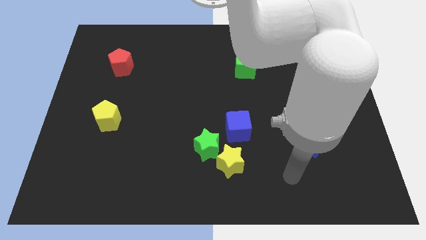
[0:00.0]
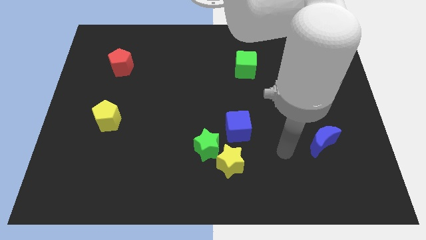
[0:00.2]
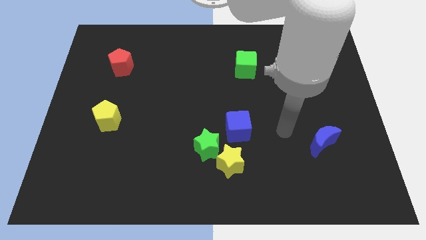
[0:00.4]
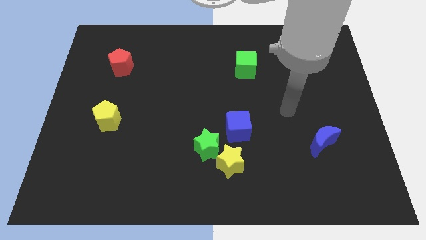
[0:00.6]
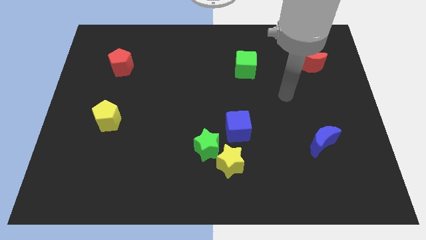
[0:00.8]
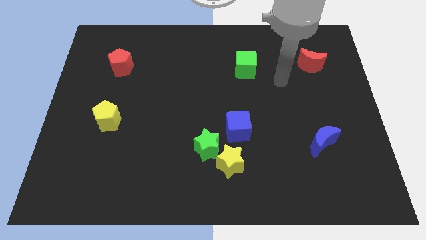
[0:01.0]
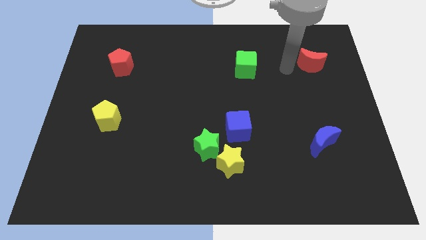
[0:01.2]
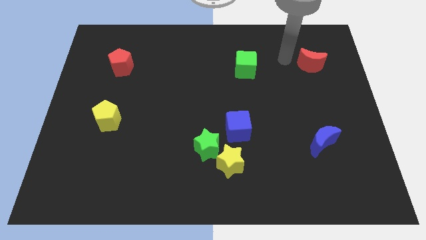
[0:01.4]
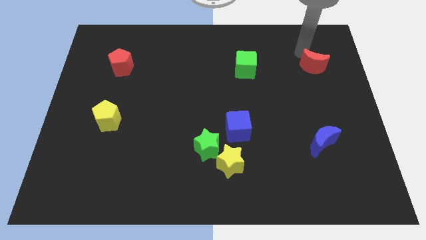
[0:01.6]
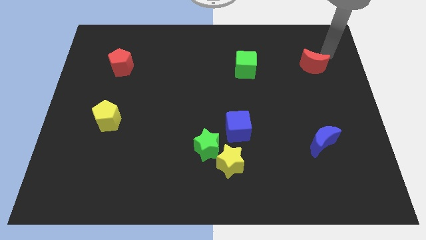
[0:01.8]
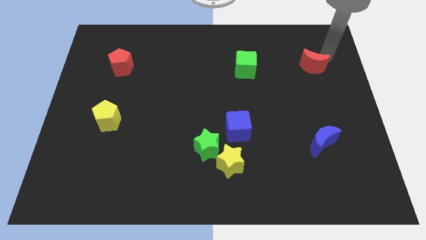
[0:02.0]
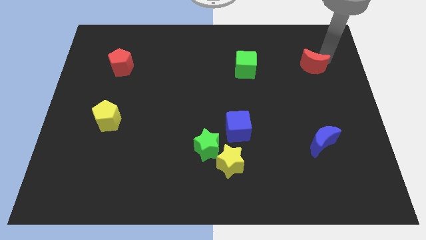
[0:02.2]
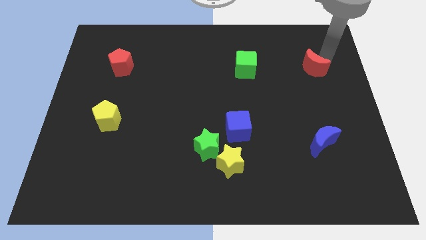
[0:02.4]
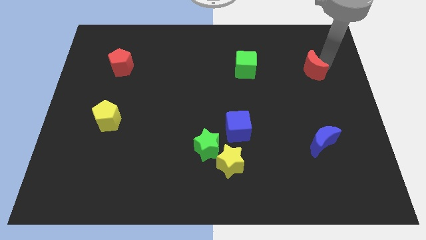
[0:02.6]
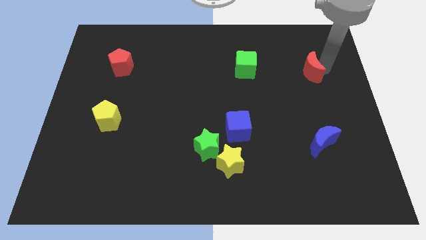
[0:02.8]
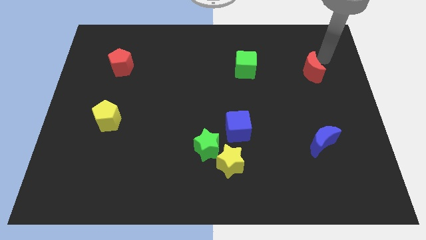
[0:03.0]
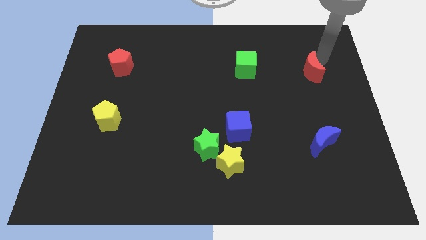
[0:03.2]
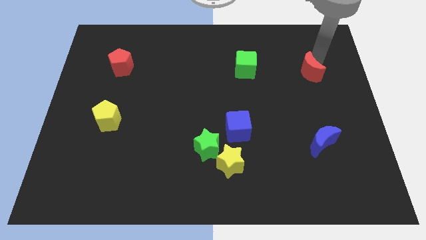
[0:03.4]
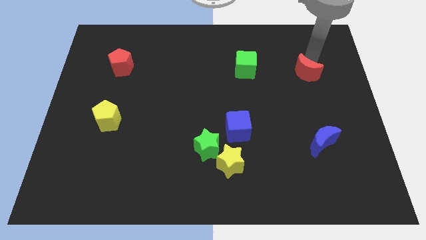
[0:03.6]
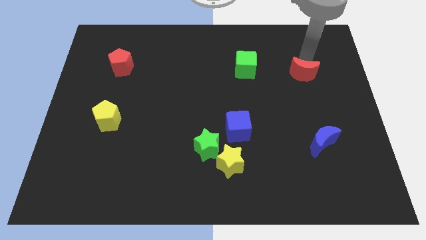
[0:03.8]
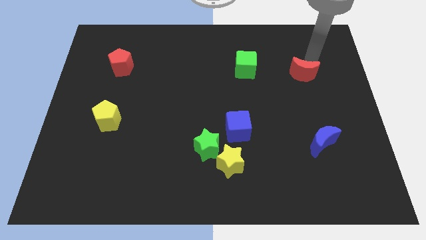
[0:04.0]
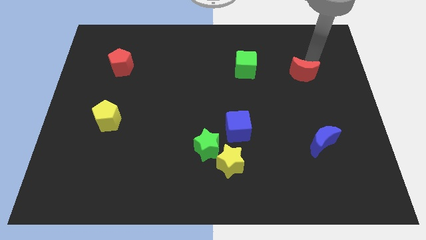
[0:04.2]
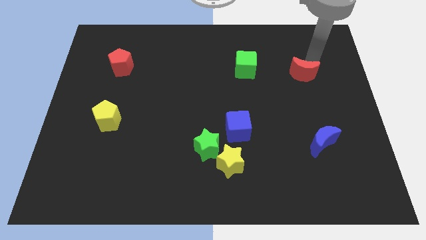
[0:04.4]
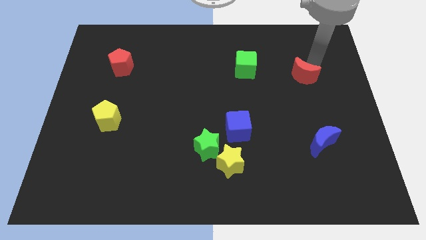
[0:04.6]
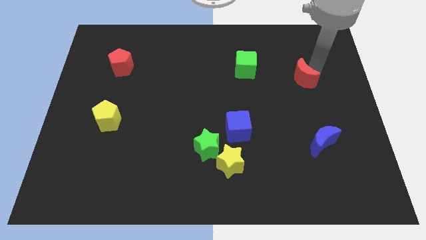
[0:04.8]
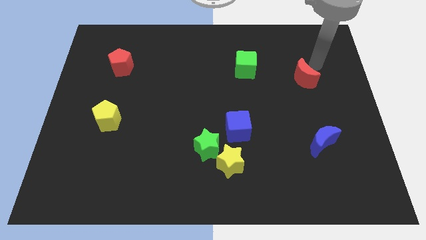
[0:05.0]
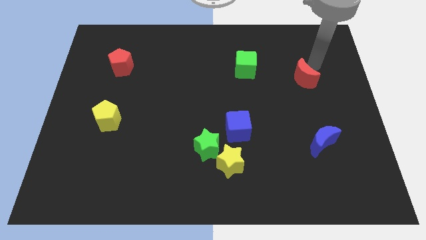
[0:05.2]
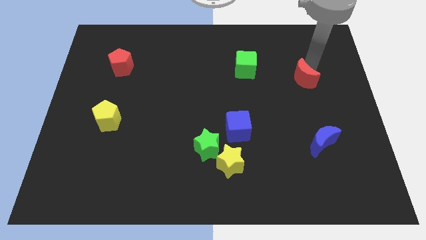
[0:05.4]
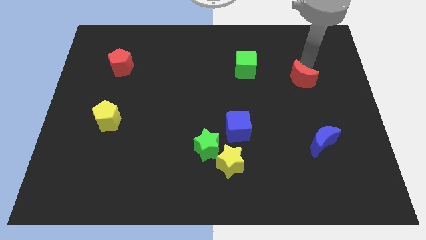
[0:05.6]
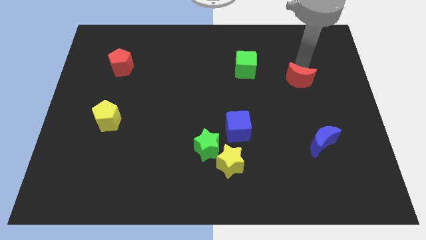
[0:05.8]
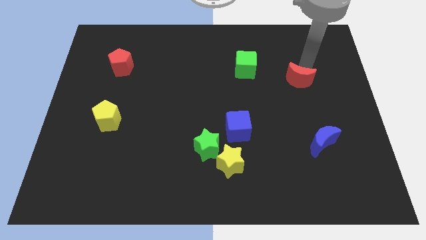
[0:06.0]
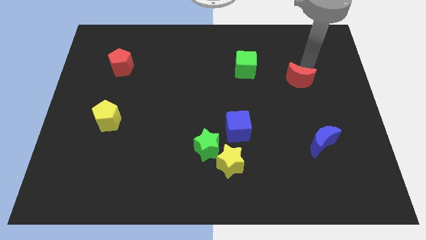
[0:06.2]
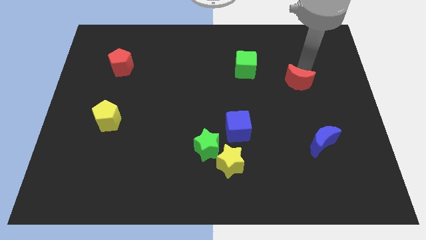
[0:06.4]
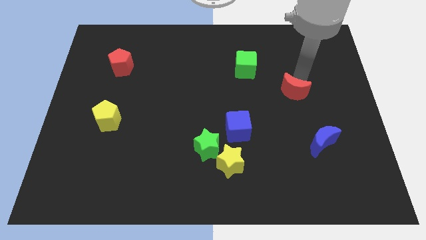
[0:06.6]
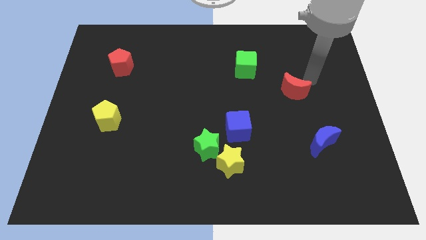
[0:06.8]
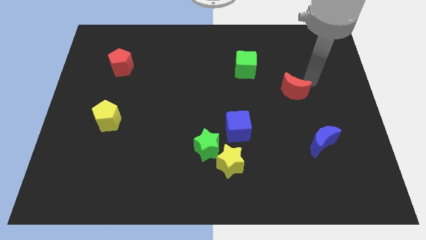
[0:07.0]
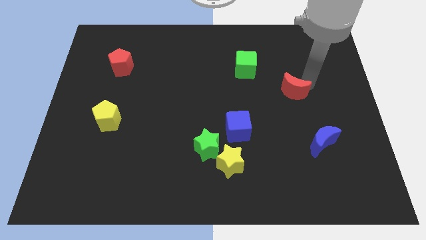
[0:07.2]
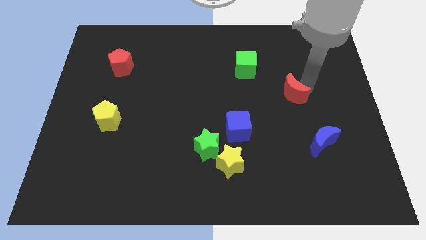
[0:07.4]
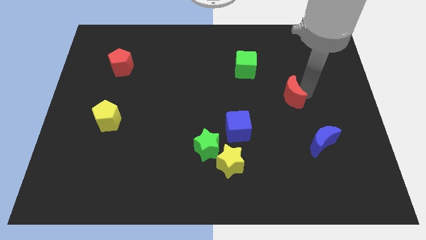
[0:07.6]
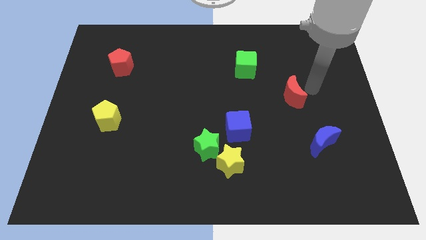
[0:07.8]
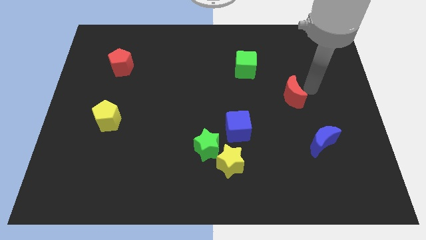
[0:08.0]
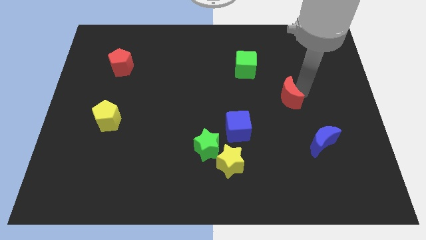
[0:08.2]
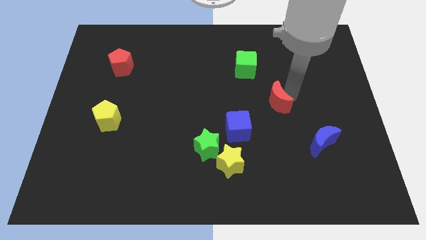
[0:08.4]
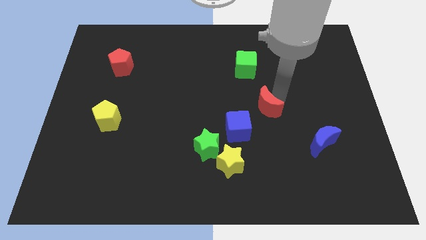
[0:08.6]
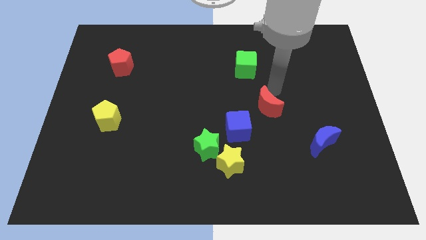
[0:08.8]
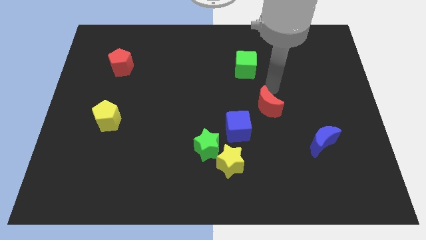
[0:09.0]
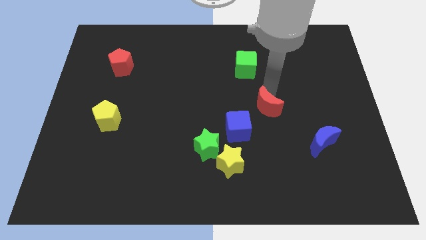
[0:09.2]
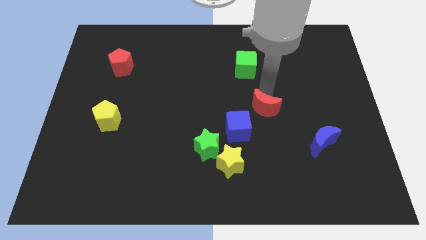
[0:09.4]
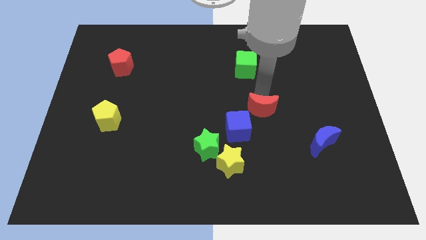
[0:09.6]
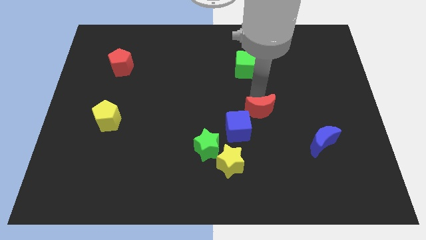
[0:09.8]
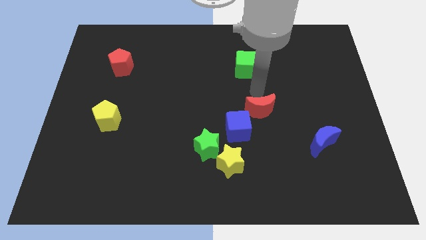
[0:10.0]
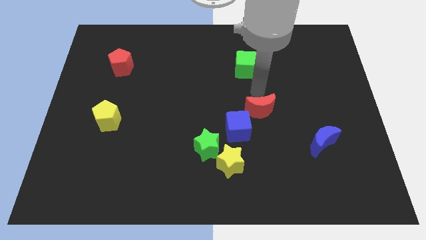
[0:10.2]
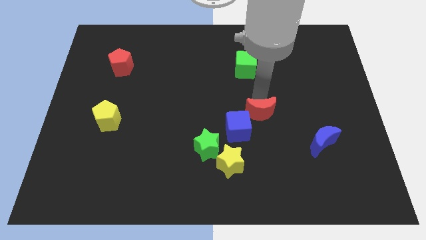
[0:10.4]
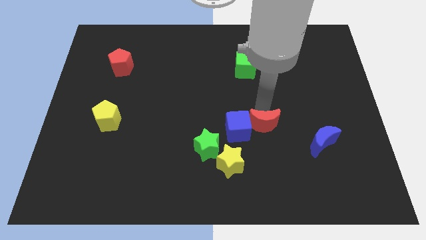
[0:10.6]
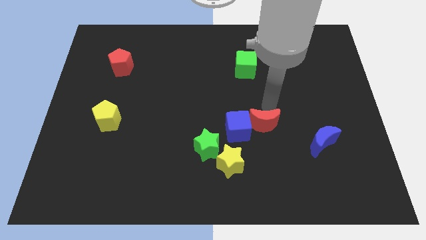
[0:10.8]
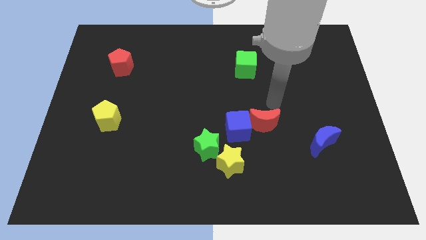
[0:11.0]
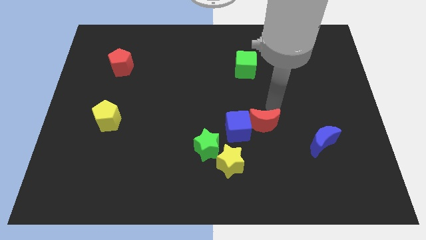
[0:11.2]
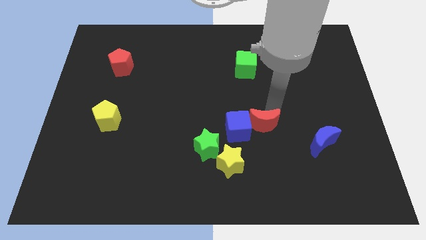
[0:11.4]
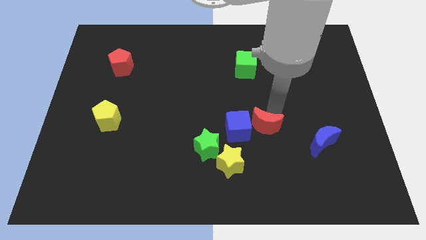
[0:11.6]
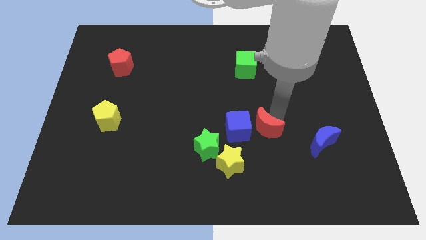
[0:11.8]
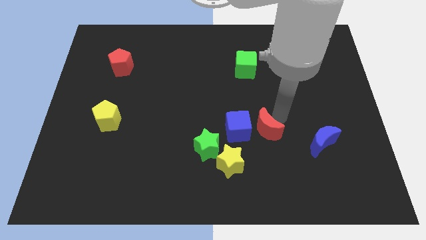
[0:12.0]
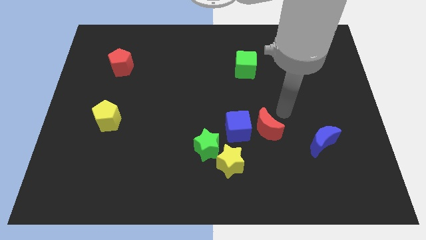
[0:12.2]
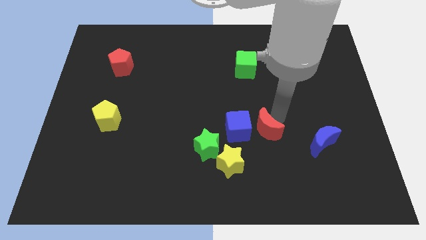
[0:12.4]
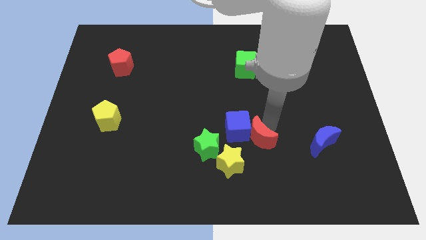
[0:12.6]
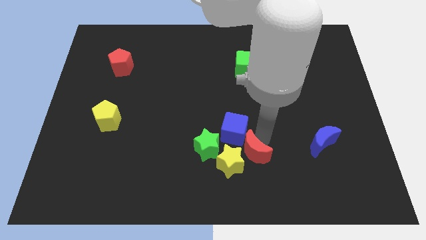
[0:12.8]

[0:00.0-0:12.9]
push the red moon close to the yellow star
